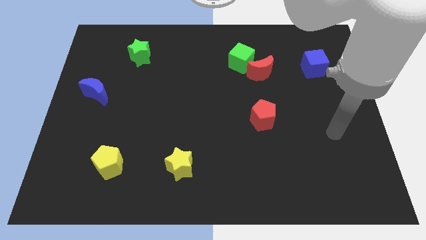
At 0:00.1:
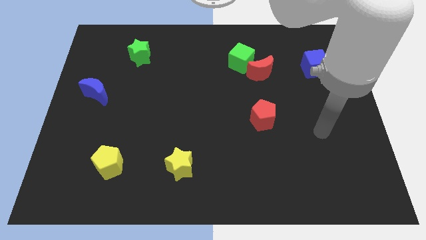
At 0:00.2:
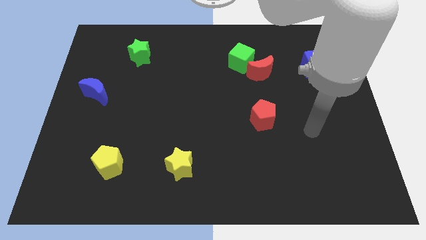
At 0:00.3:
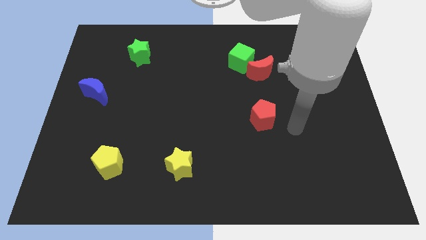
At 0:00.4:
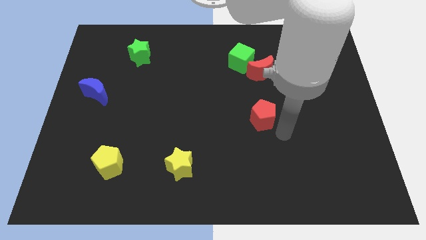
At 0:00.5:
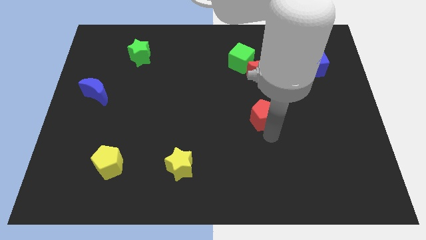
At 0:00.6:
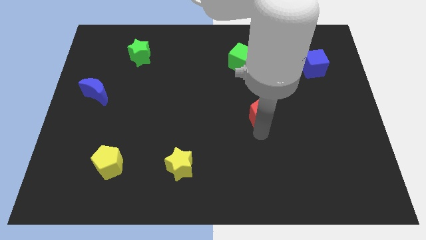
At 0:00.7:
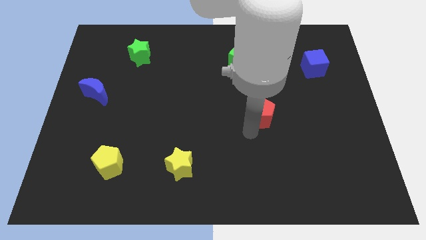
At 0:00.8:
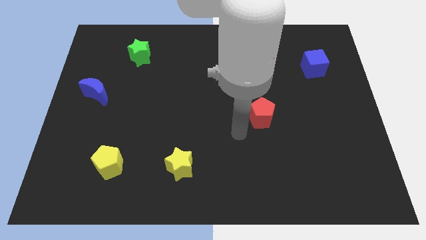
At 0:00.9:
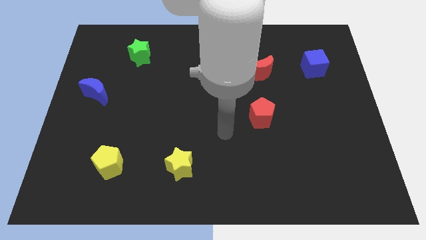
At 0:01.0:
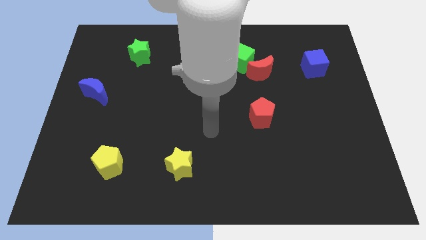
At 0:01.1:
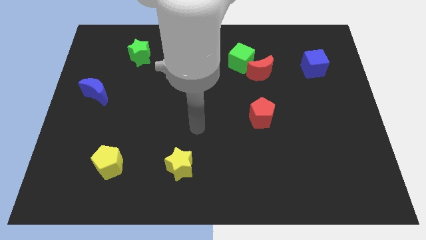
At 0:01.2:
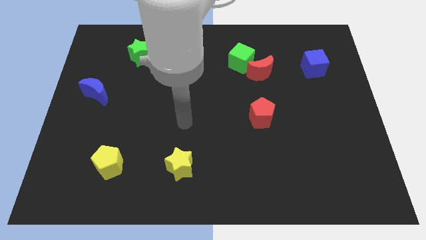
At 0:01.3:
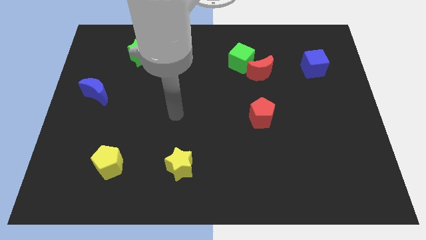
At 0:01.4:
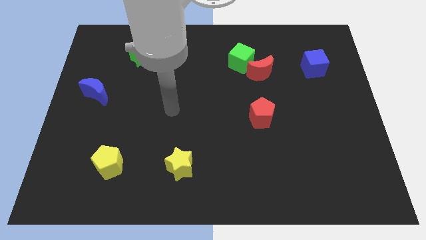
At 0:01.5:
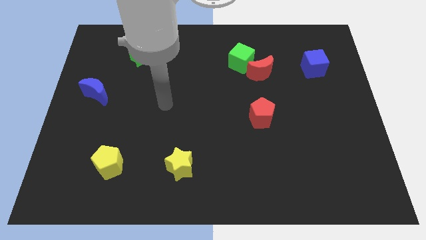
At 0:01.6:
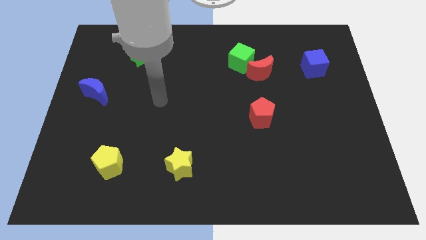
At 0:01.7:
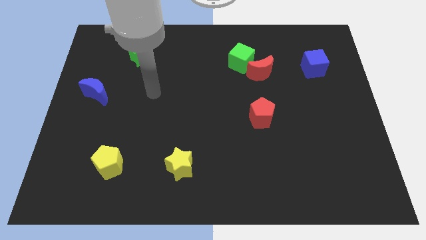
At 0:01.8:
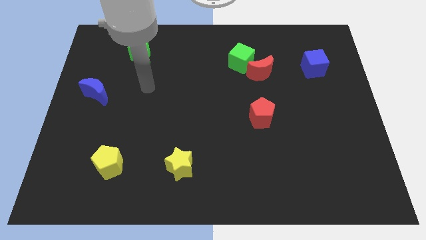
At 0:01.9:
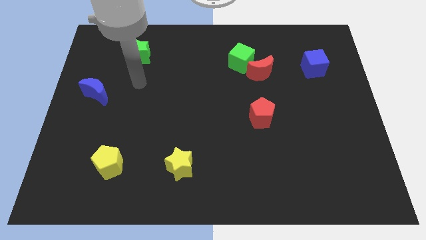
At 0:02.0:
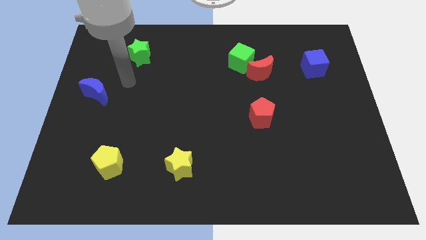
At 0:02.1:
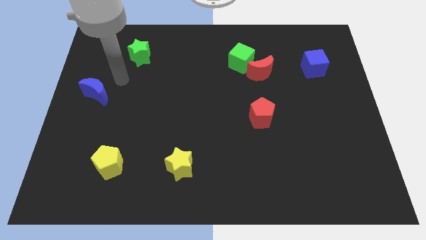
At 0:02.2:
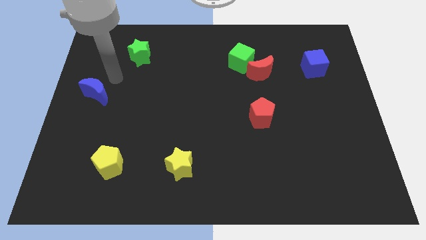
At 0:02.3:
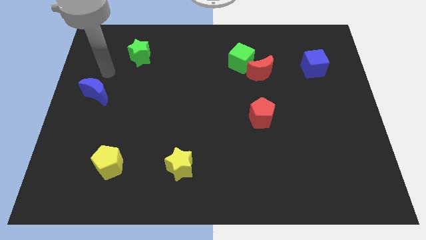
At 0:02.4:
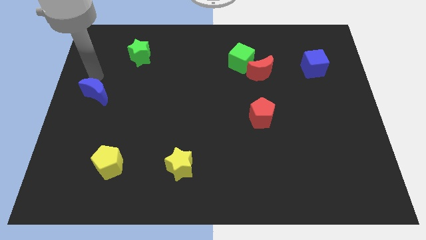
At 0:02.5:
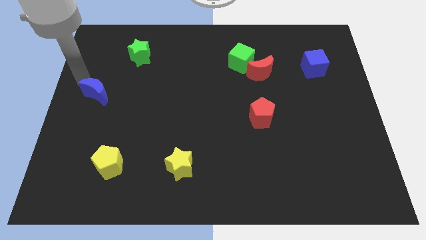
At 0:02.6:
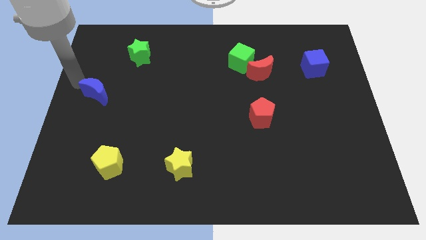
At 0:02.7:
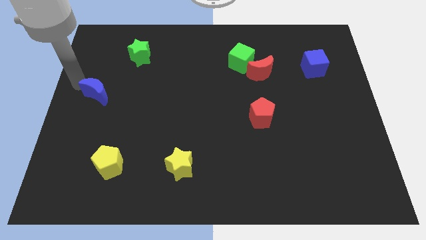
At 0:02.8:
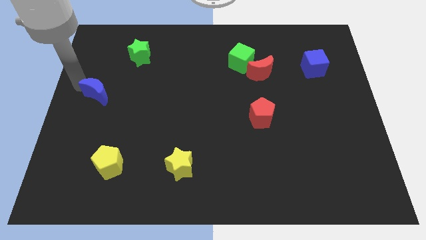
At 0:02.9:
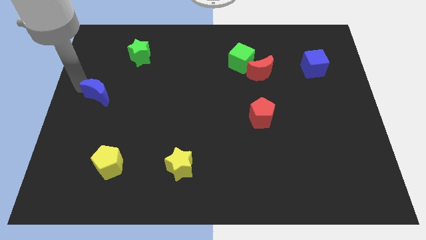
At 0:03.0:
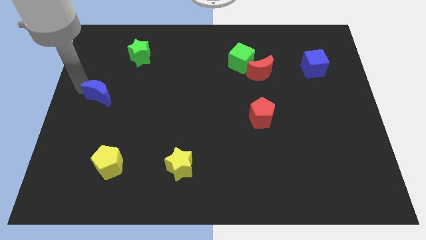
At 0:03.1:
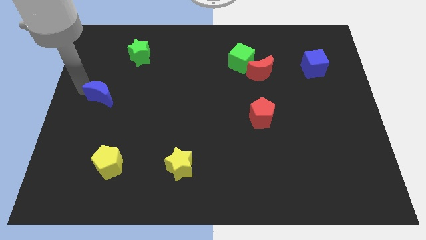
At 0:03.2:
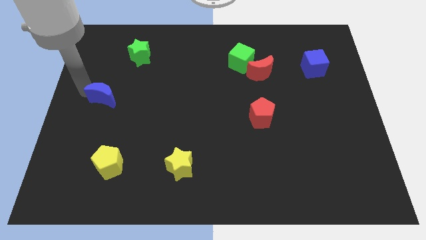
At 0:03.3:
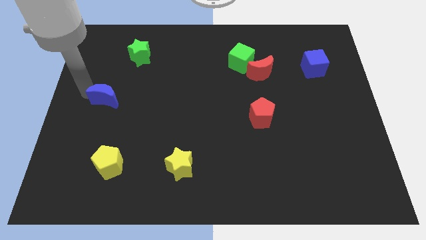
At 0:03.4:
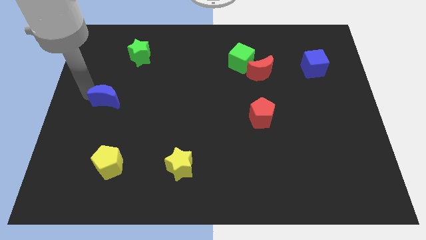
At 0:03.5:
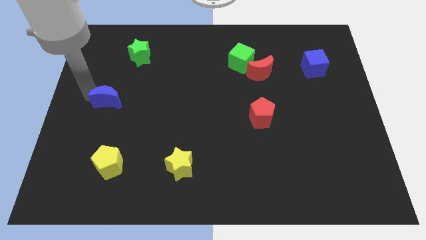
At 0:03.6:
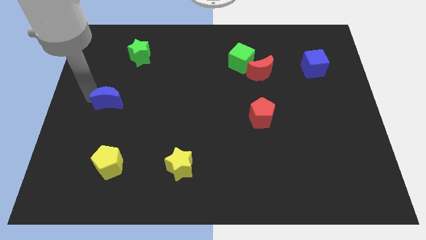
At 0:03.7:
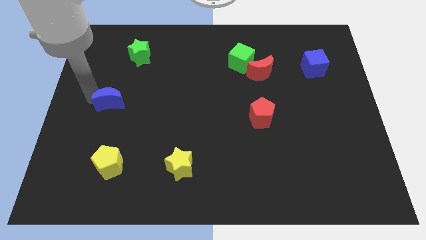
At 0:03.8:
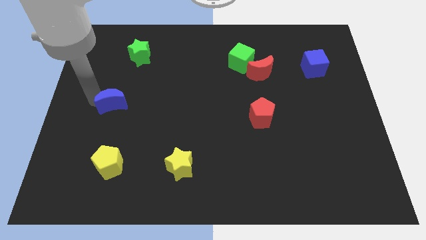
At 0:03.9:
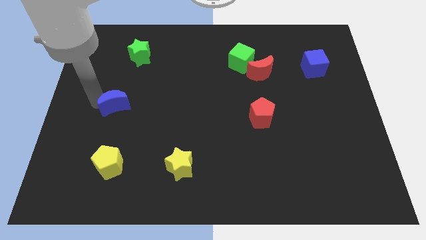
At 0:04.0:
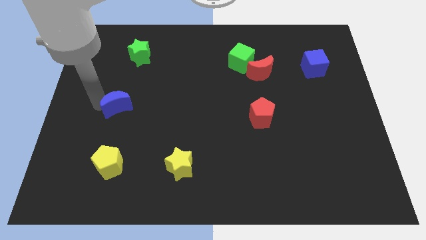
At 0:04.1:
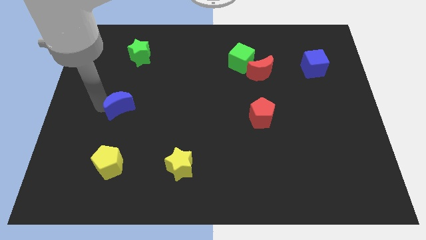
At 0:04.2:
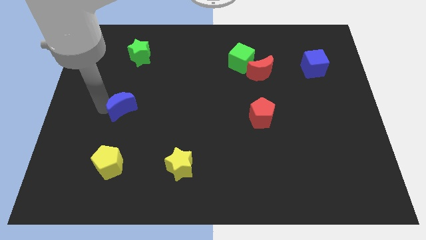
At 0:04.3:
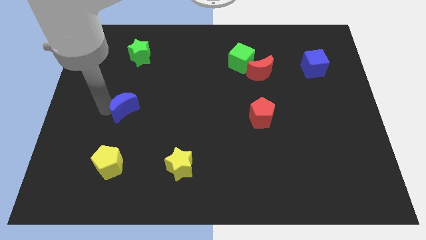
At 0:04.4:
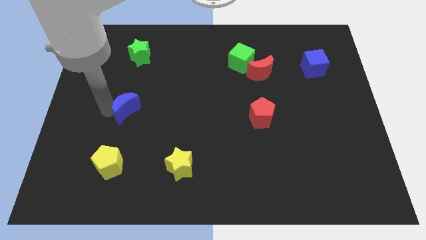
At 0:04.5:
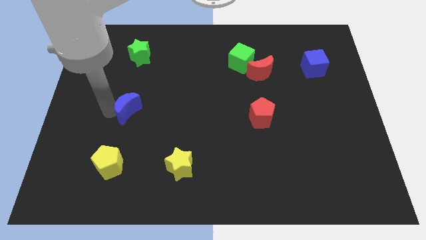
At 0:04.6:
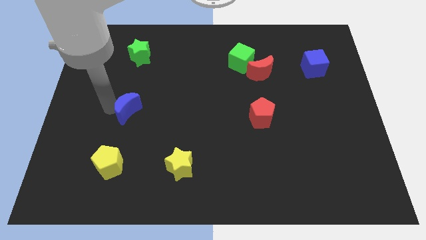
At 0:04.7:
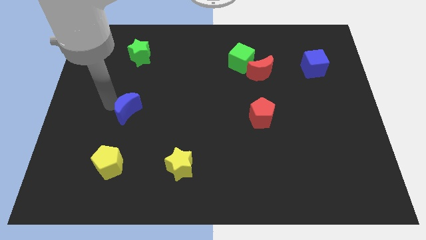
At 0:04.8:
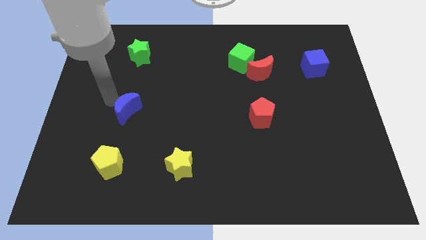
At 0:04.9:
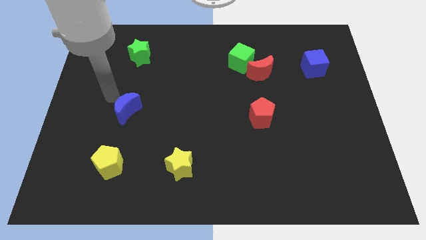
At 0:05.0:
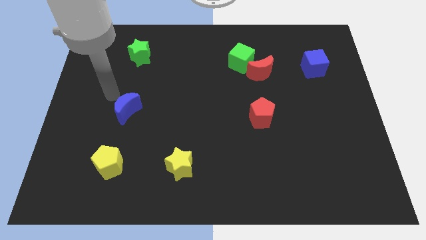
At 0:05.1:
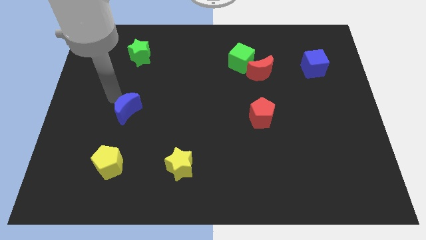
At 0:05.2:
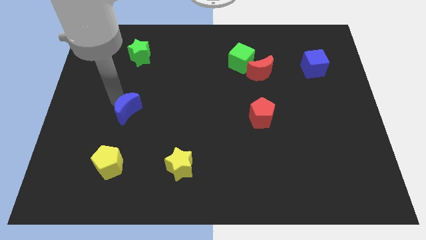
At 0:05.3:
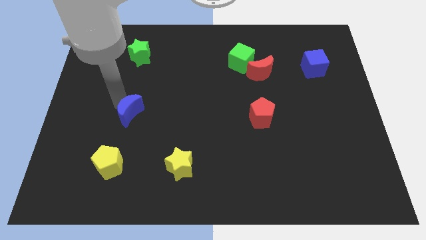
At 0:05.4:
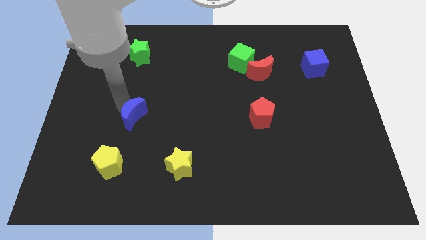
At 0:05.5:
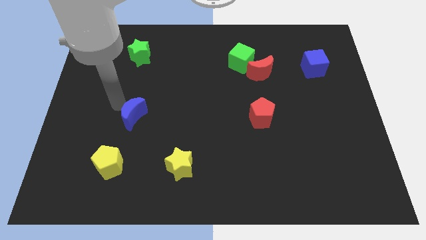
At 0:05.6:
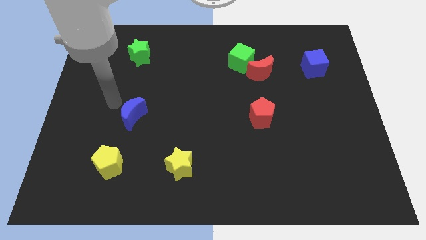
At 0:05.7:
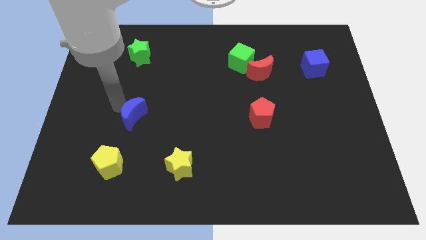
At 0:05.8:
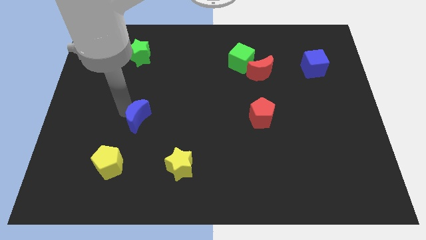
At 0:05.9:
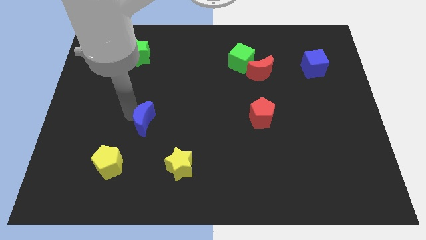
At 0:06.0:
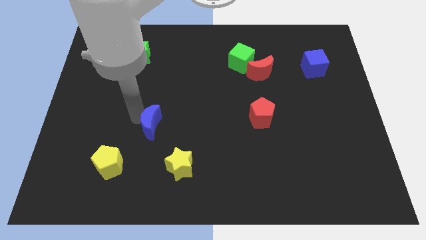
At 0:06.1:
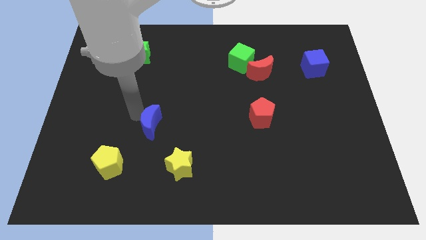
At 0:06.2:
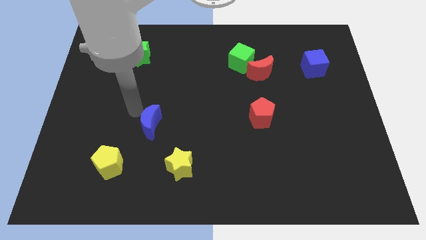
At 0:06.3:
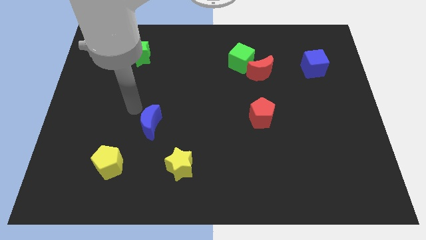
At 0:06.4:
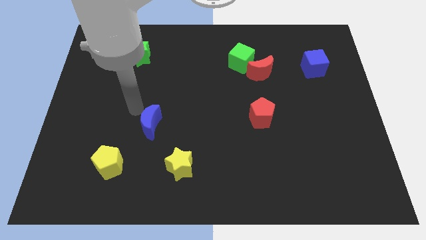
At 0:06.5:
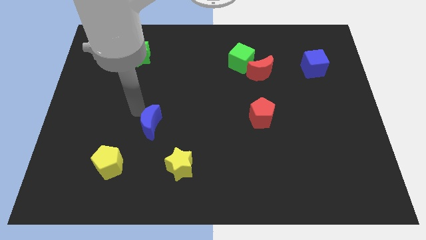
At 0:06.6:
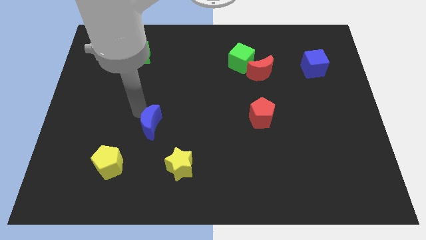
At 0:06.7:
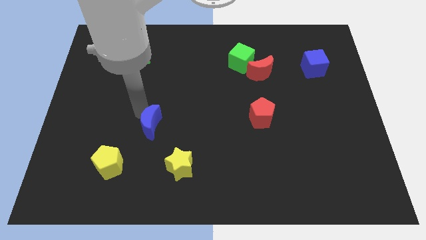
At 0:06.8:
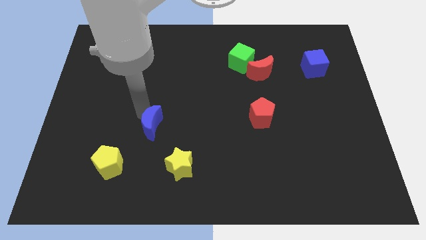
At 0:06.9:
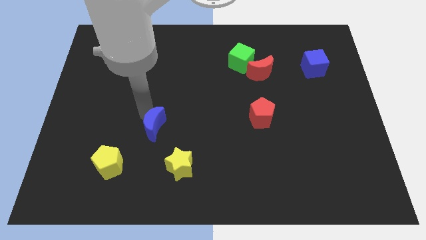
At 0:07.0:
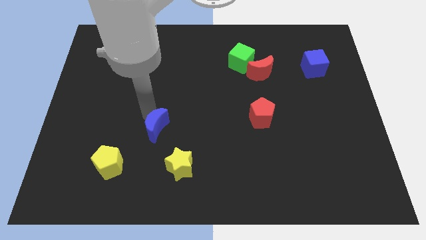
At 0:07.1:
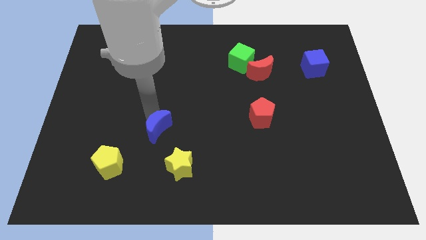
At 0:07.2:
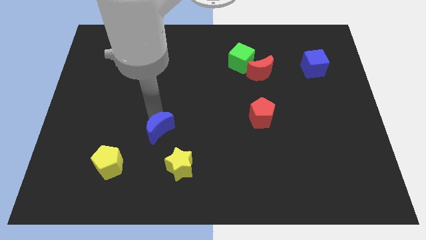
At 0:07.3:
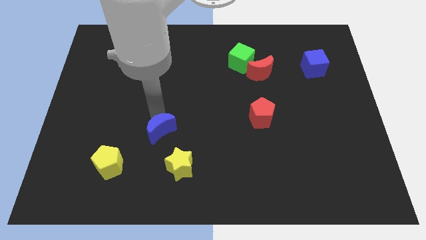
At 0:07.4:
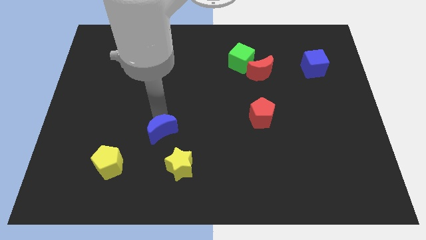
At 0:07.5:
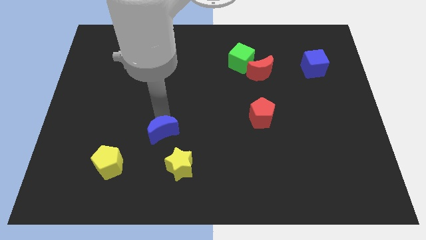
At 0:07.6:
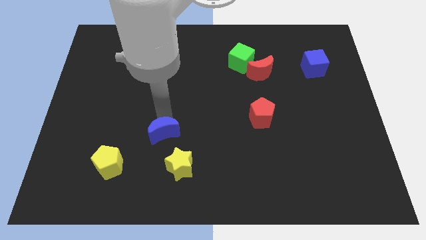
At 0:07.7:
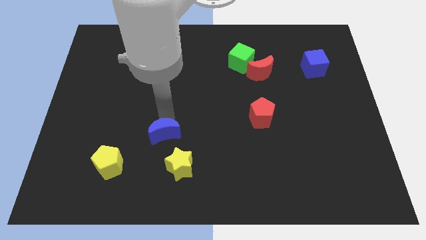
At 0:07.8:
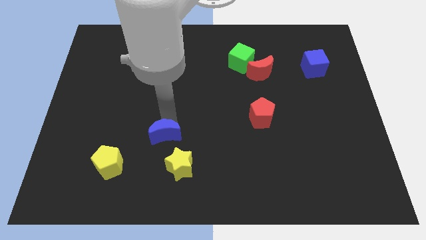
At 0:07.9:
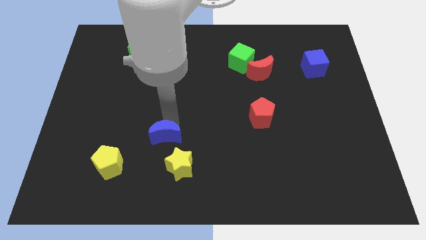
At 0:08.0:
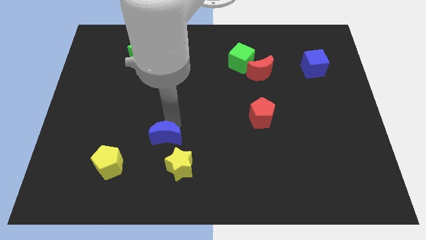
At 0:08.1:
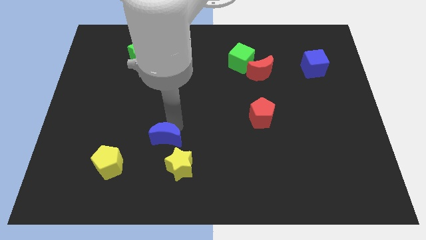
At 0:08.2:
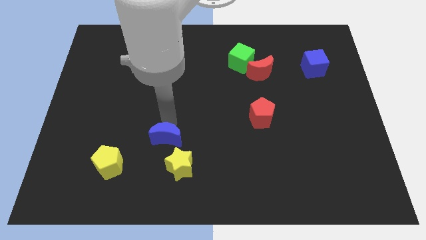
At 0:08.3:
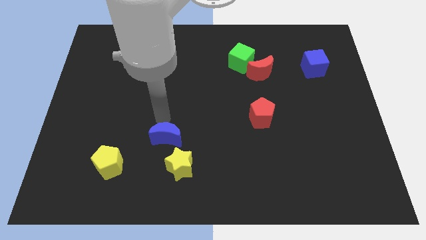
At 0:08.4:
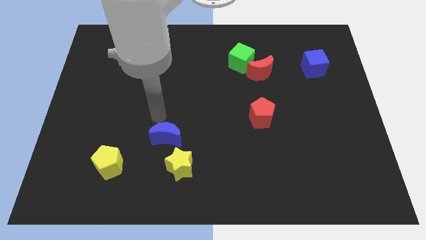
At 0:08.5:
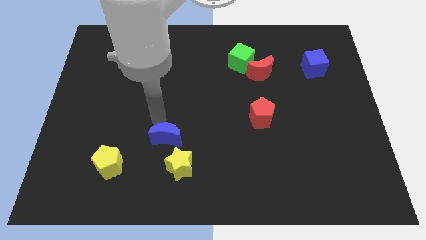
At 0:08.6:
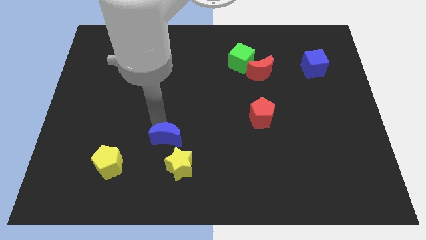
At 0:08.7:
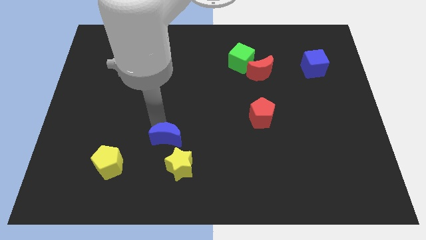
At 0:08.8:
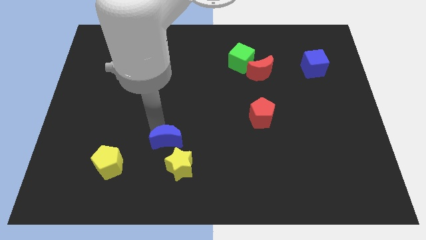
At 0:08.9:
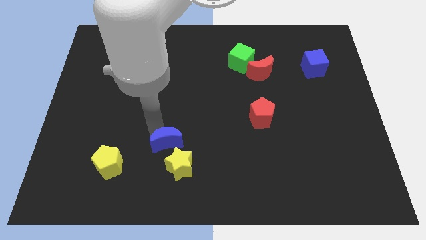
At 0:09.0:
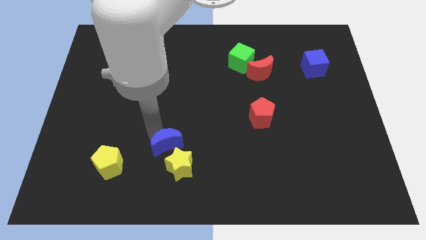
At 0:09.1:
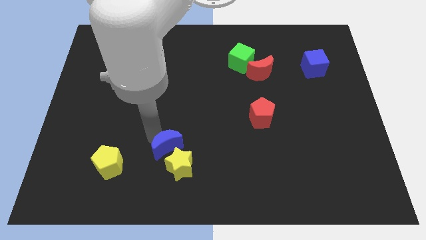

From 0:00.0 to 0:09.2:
put the blue moon to the yellow star
